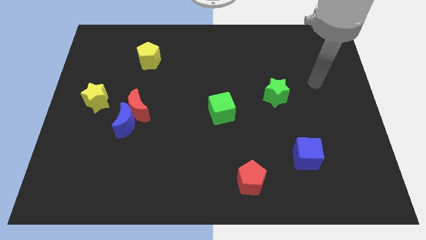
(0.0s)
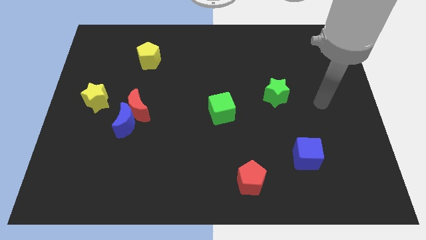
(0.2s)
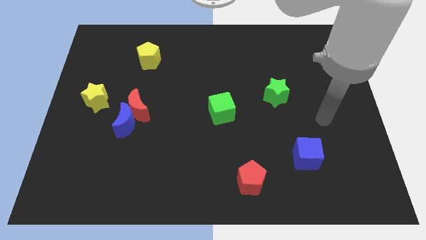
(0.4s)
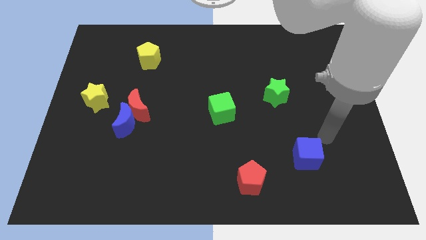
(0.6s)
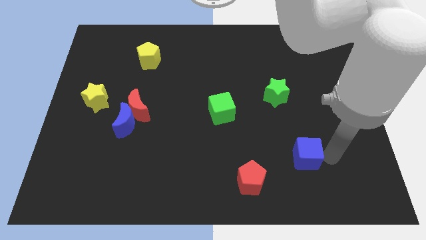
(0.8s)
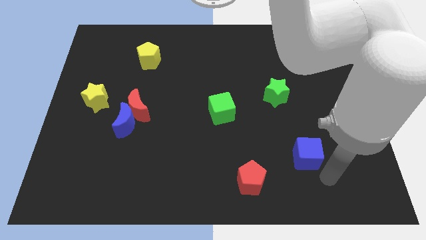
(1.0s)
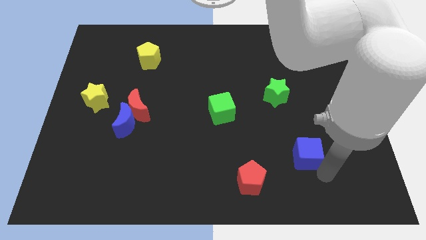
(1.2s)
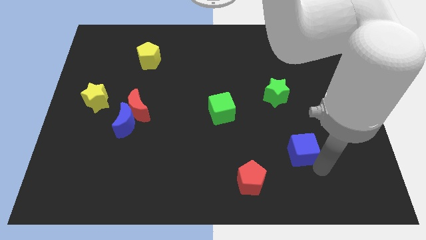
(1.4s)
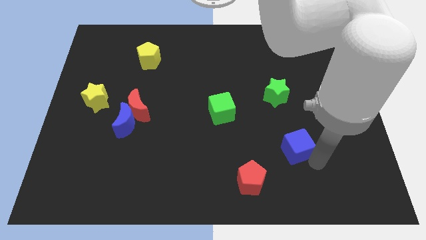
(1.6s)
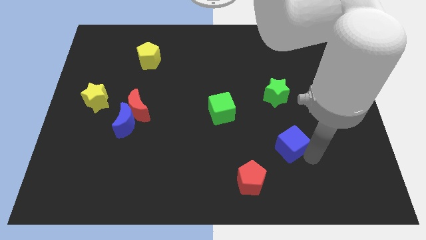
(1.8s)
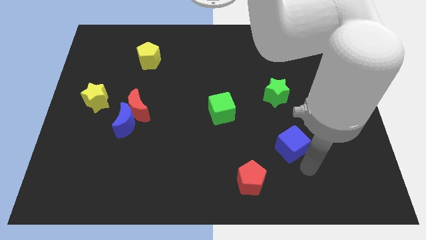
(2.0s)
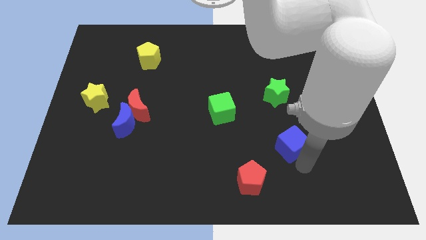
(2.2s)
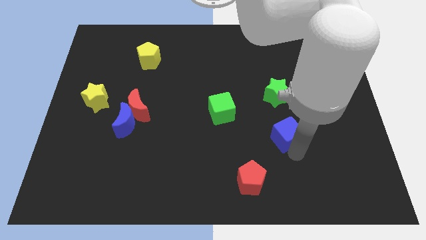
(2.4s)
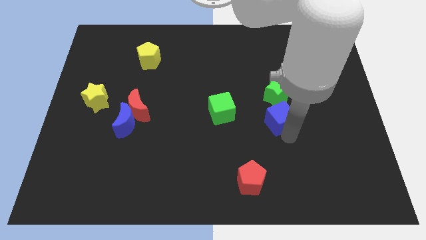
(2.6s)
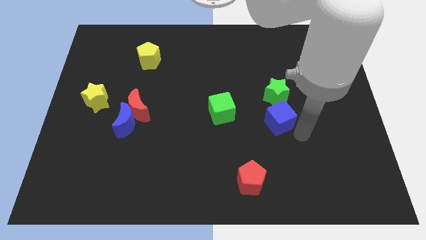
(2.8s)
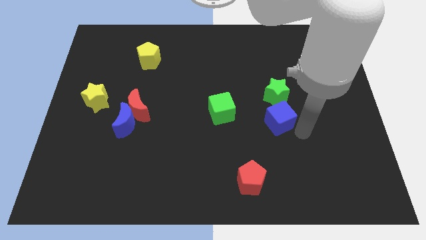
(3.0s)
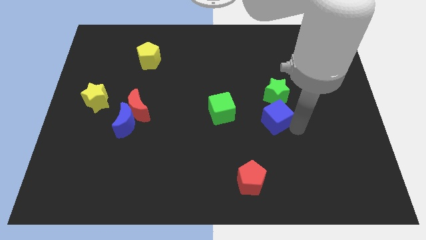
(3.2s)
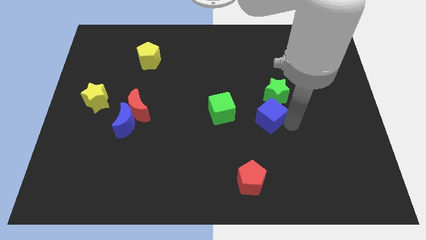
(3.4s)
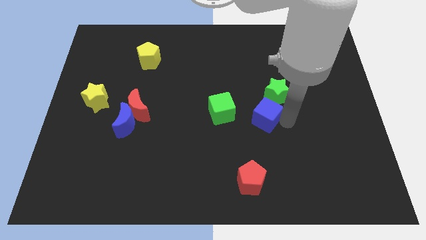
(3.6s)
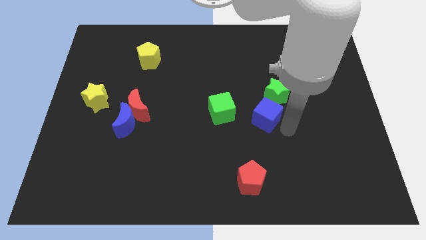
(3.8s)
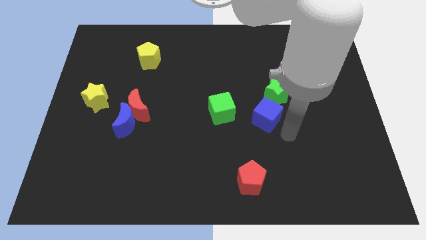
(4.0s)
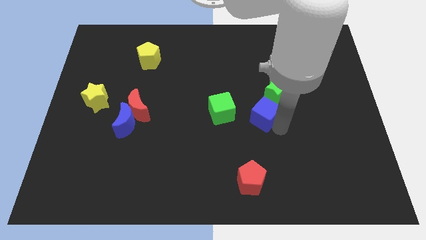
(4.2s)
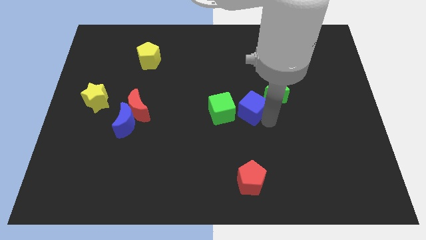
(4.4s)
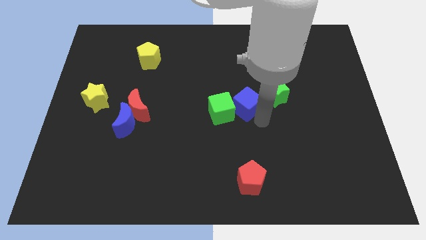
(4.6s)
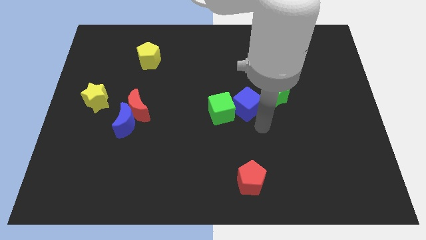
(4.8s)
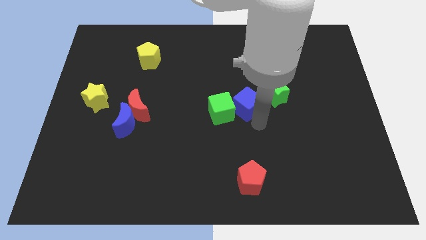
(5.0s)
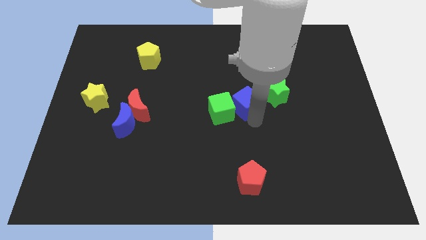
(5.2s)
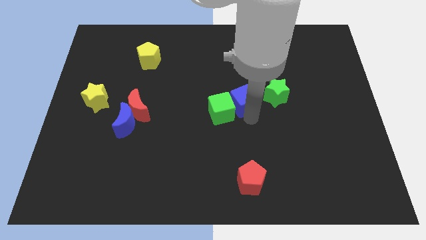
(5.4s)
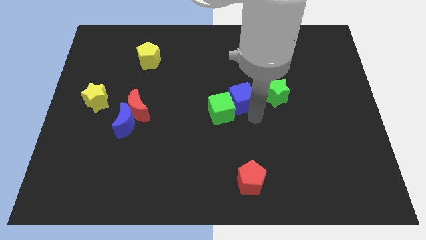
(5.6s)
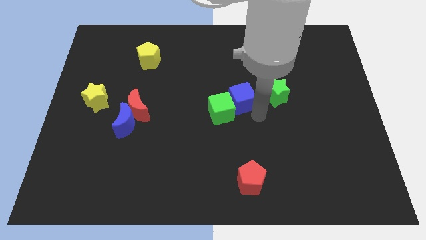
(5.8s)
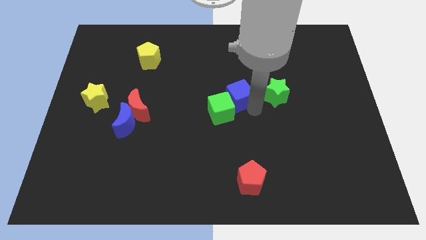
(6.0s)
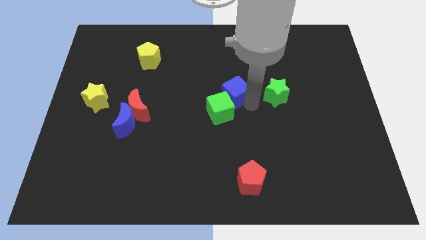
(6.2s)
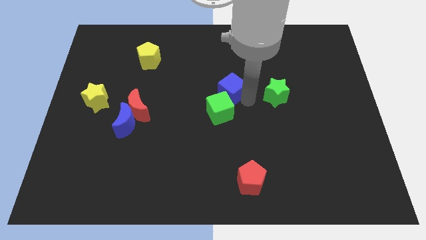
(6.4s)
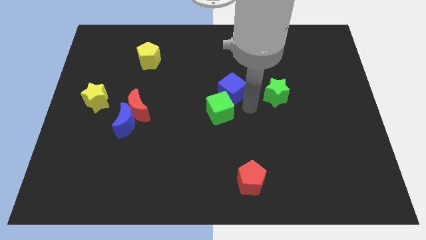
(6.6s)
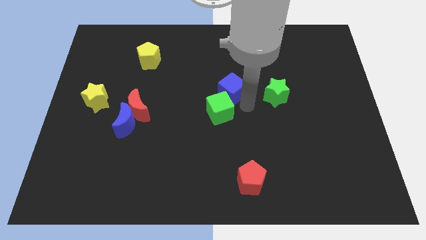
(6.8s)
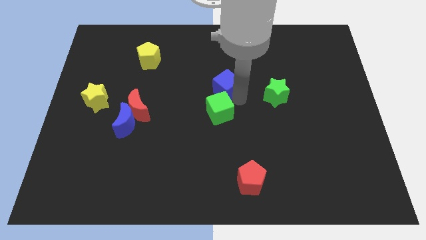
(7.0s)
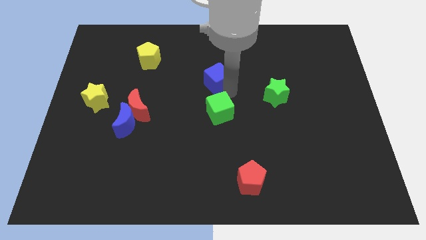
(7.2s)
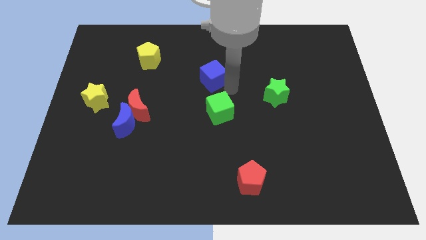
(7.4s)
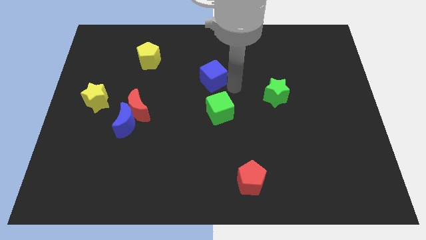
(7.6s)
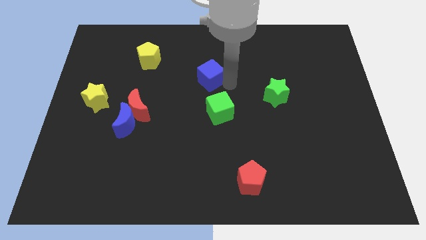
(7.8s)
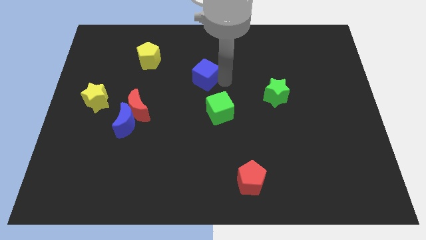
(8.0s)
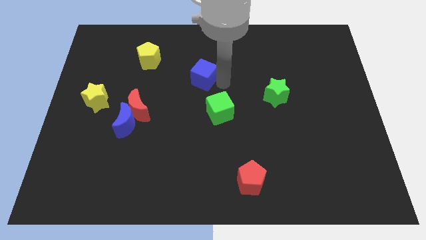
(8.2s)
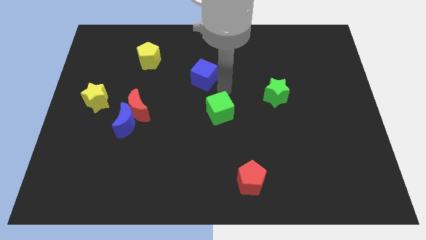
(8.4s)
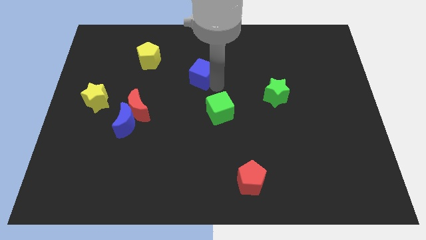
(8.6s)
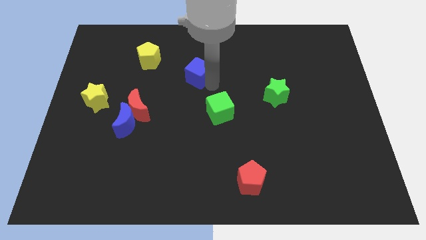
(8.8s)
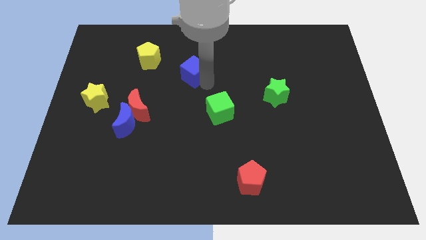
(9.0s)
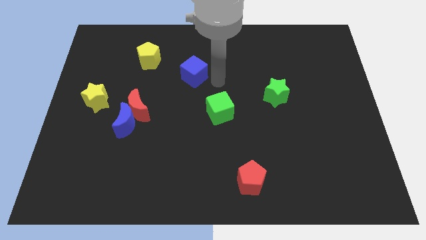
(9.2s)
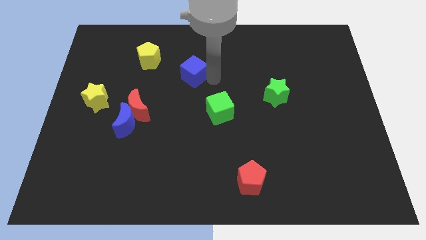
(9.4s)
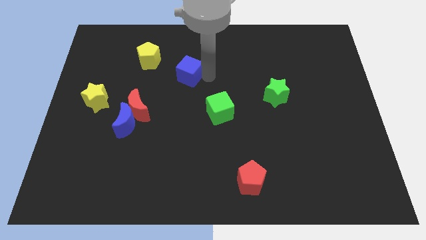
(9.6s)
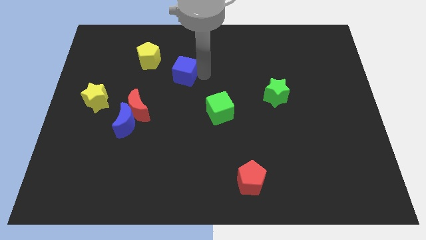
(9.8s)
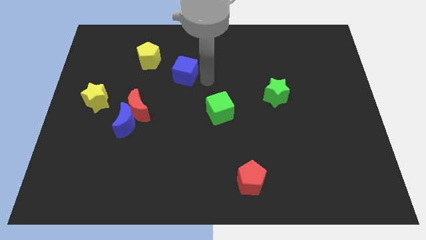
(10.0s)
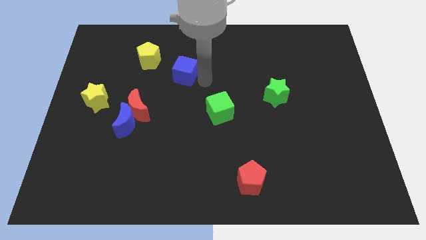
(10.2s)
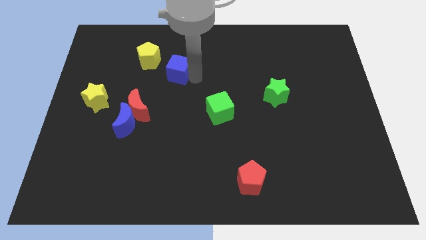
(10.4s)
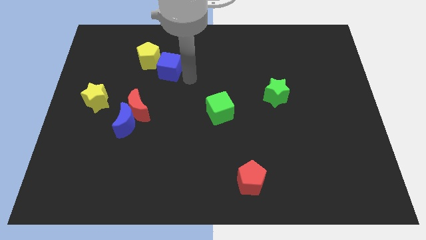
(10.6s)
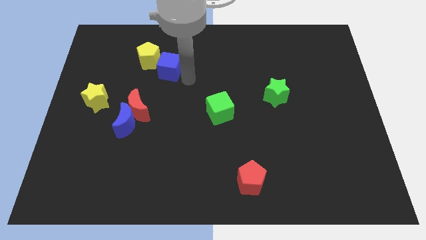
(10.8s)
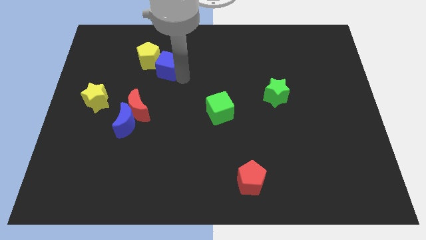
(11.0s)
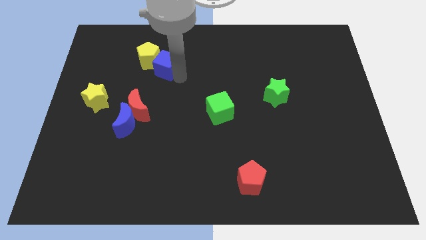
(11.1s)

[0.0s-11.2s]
move the blue cube to the yellow pentagon
